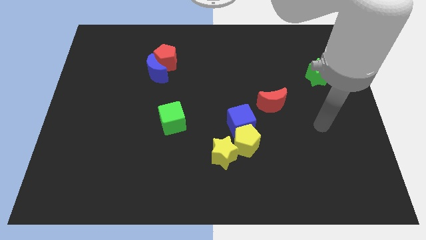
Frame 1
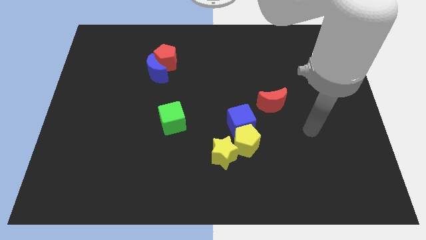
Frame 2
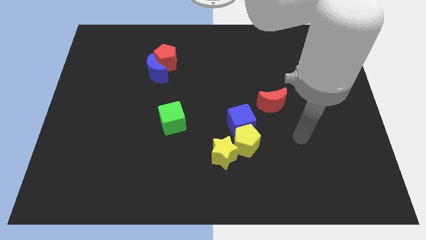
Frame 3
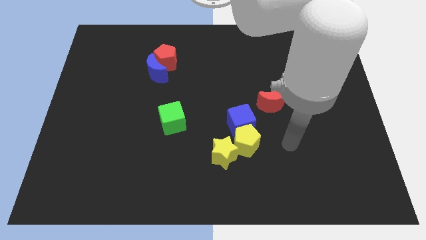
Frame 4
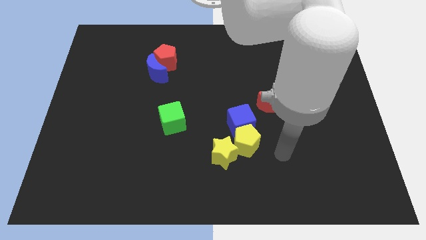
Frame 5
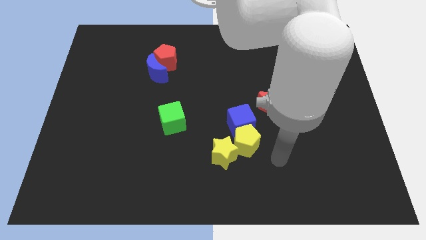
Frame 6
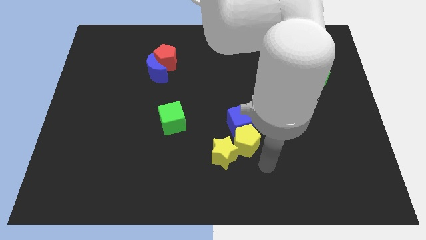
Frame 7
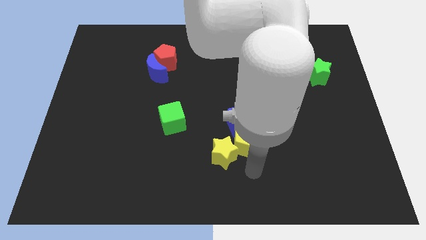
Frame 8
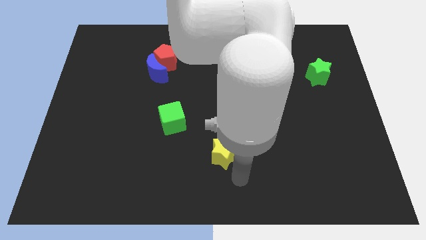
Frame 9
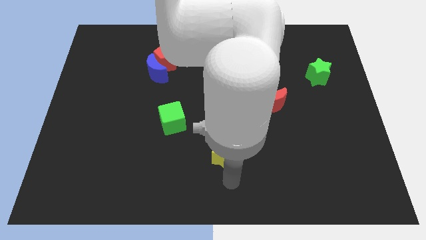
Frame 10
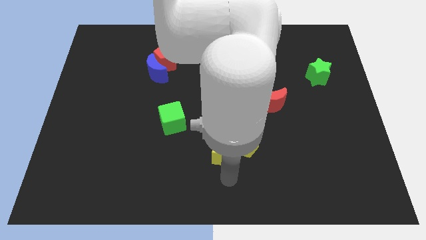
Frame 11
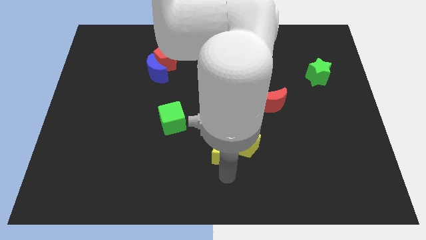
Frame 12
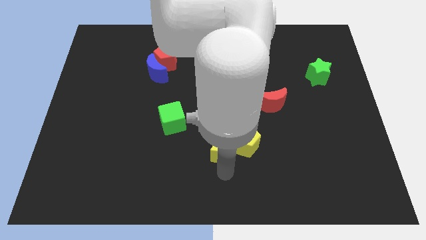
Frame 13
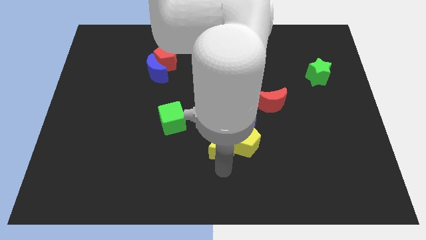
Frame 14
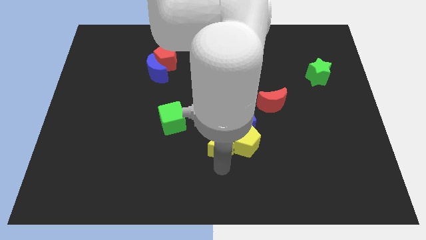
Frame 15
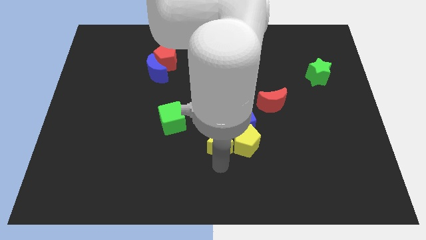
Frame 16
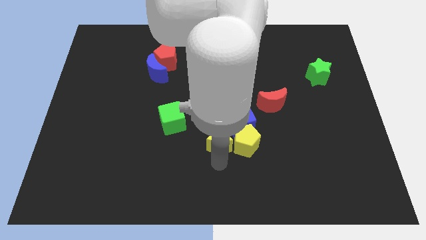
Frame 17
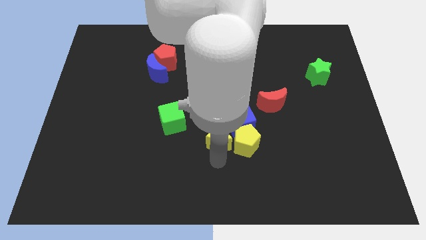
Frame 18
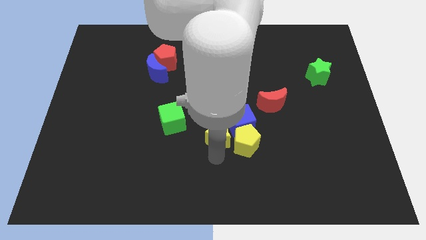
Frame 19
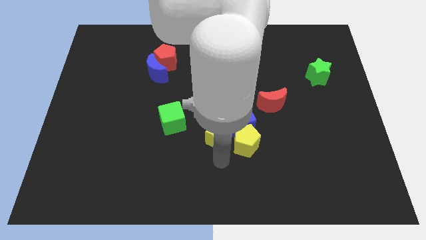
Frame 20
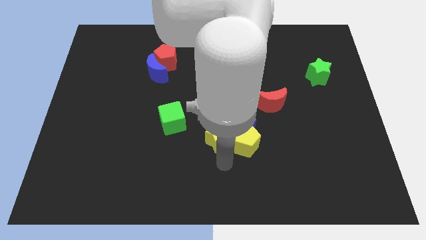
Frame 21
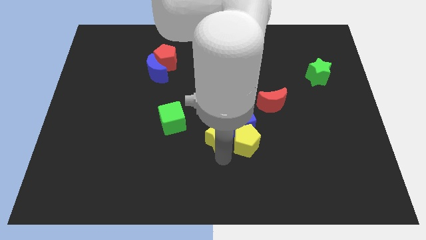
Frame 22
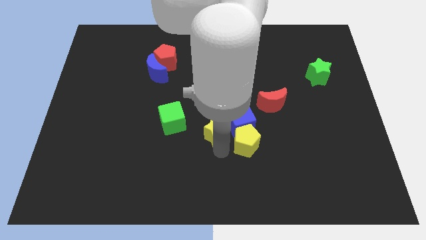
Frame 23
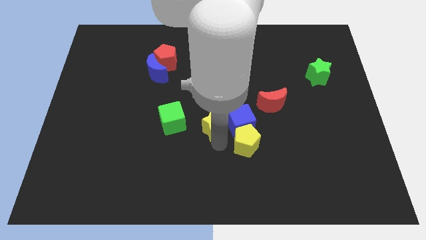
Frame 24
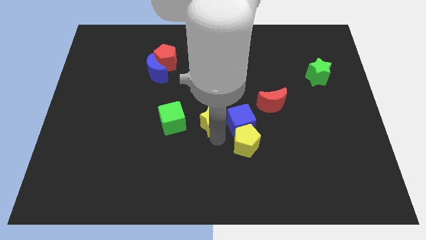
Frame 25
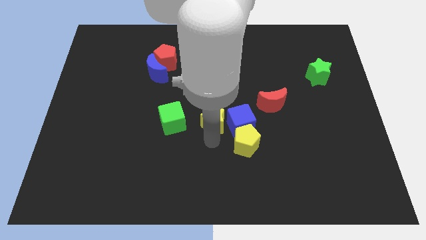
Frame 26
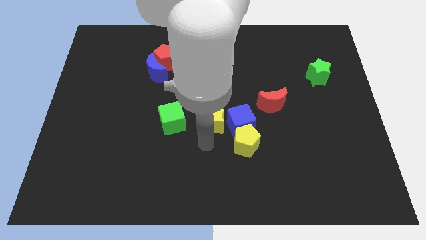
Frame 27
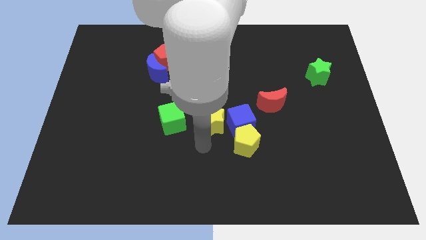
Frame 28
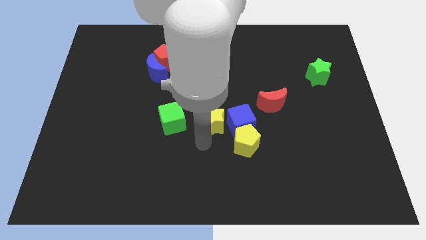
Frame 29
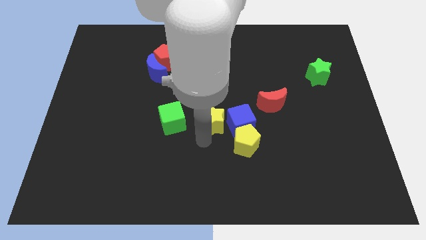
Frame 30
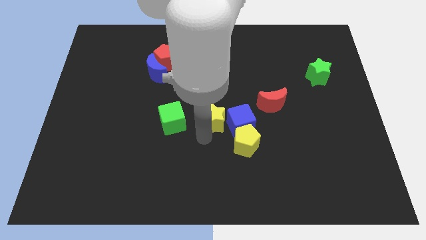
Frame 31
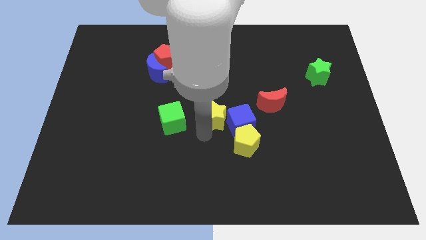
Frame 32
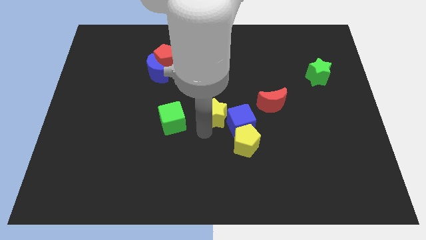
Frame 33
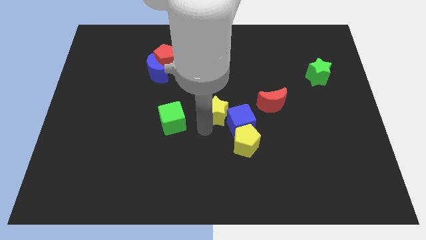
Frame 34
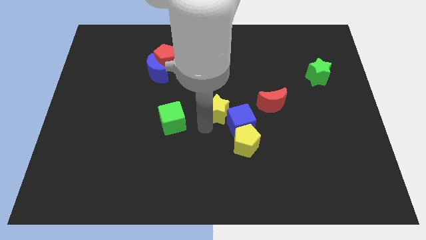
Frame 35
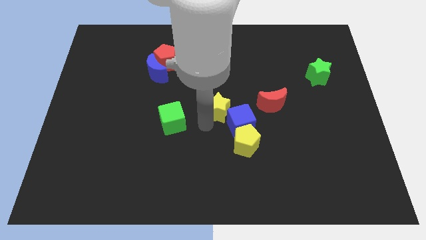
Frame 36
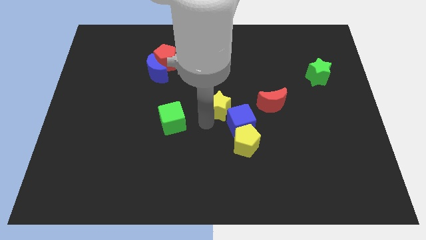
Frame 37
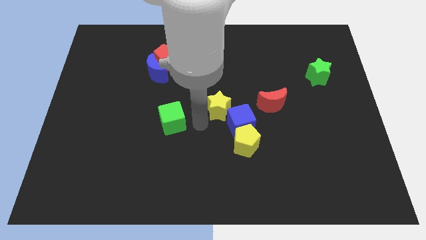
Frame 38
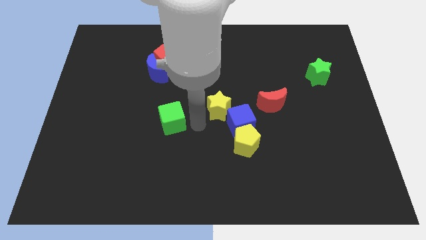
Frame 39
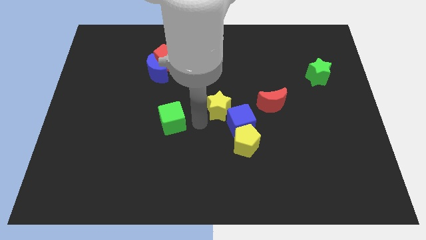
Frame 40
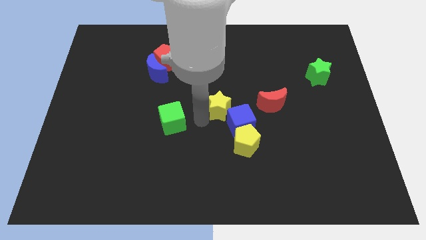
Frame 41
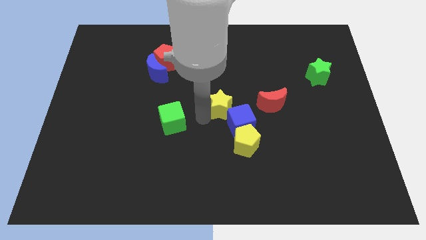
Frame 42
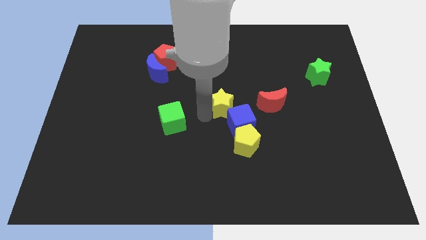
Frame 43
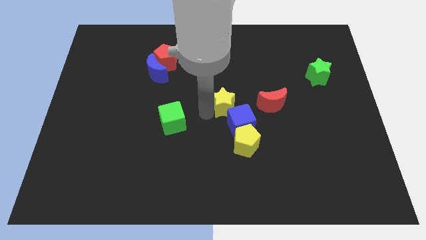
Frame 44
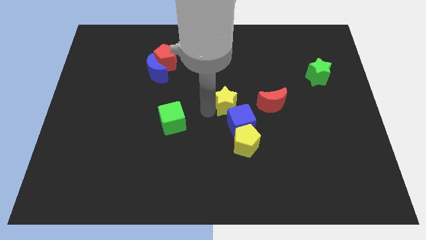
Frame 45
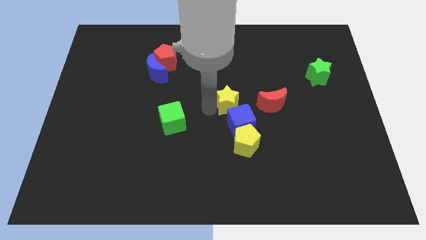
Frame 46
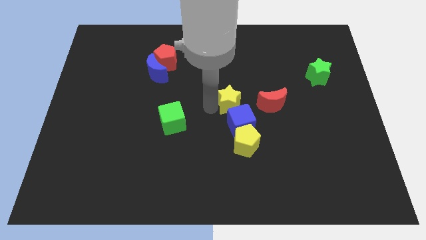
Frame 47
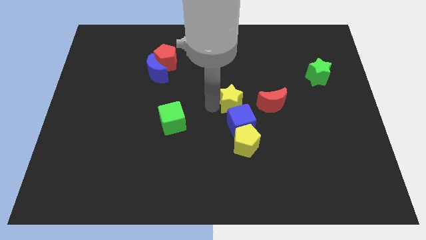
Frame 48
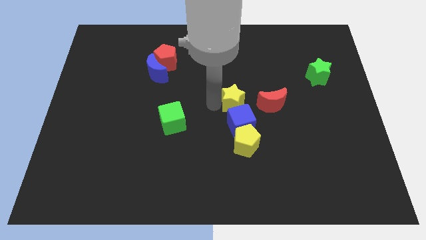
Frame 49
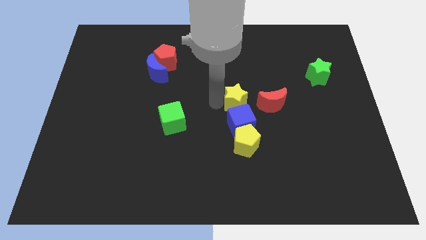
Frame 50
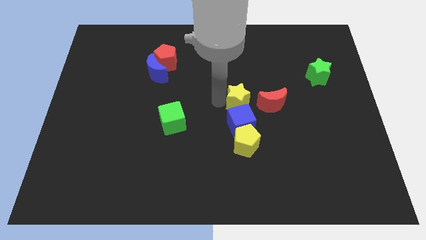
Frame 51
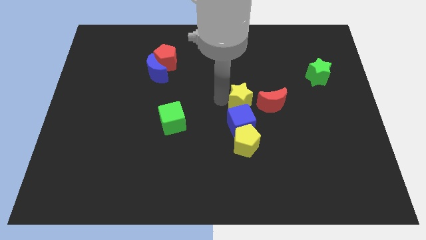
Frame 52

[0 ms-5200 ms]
move the yellow star diagonally up and to the left of the red moon

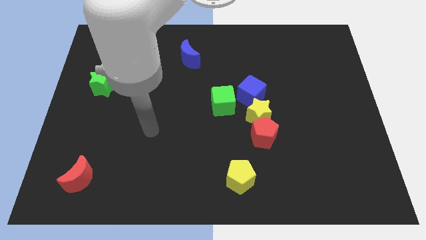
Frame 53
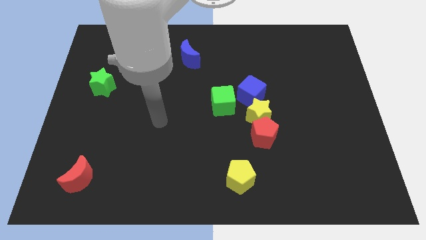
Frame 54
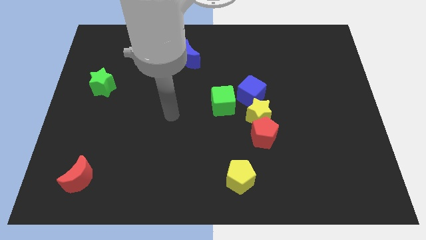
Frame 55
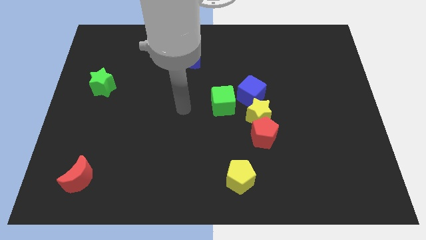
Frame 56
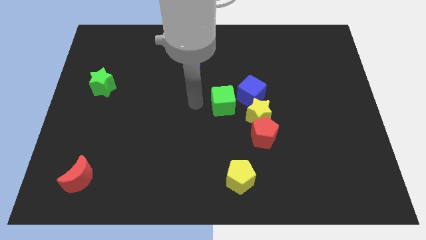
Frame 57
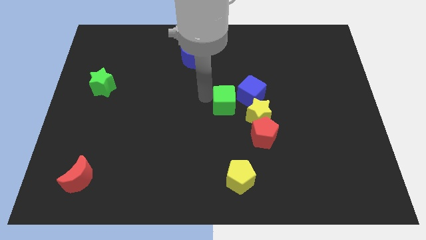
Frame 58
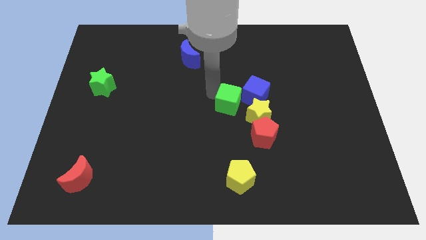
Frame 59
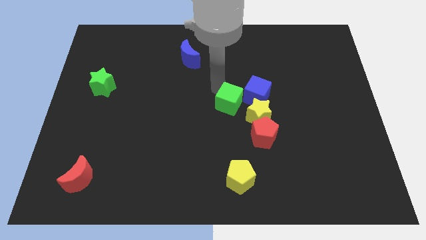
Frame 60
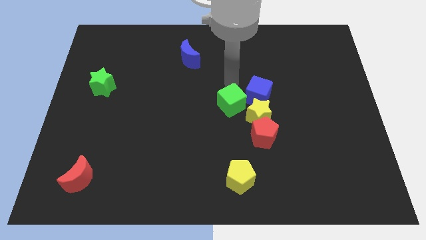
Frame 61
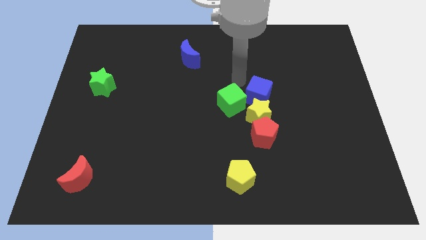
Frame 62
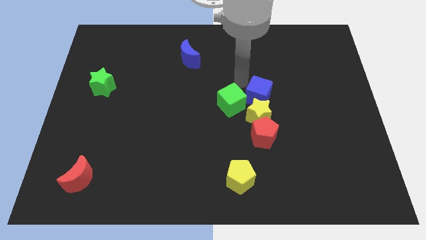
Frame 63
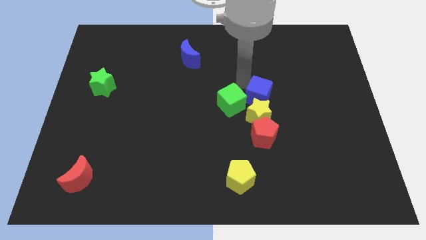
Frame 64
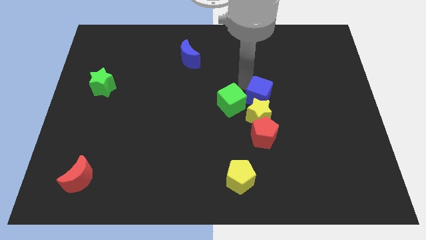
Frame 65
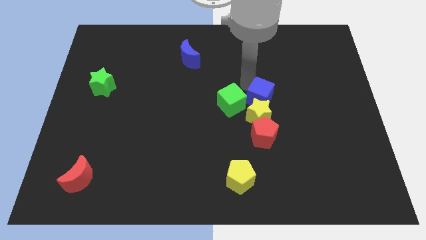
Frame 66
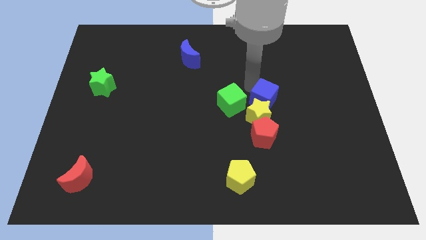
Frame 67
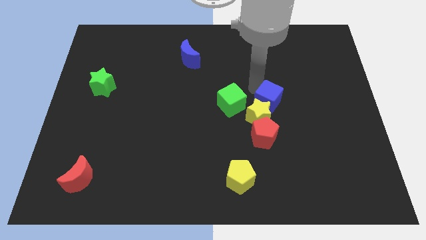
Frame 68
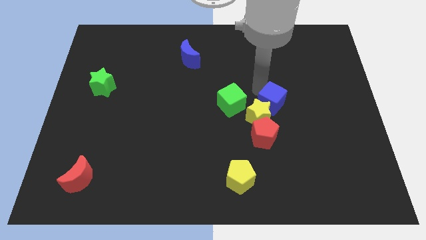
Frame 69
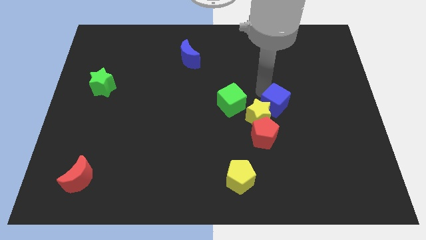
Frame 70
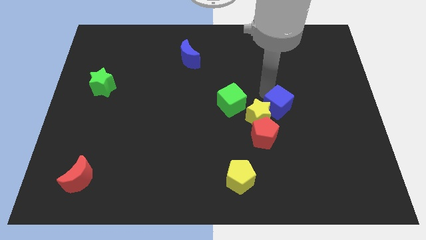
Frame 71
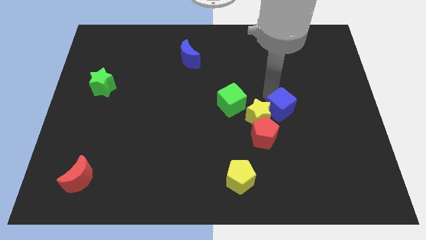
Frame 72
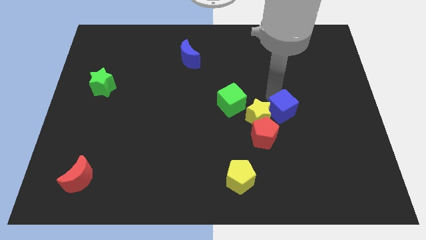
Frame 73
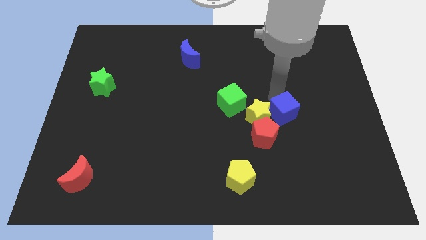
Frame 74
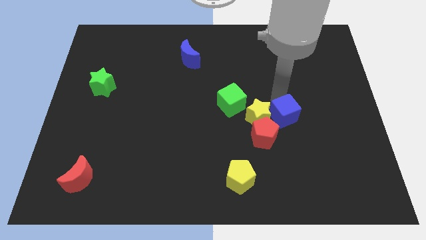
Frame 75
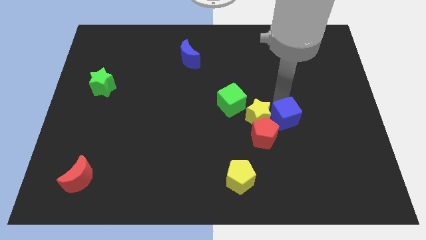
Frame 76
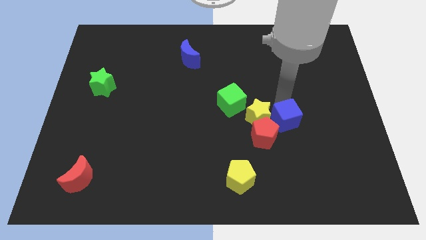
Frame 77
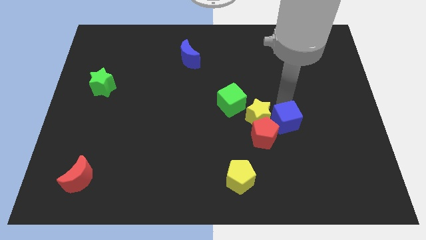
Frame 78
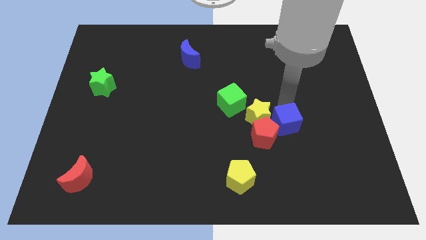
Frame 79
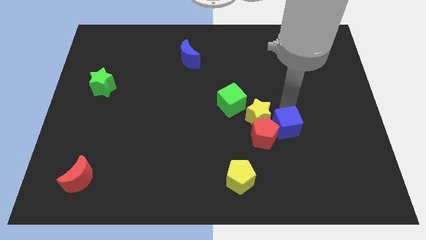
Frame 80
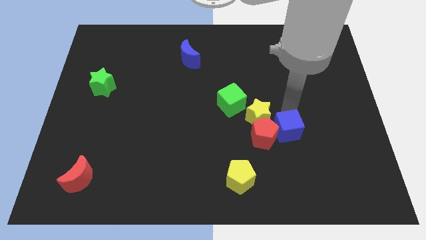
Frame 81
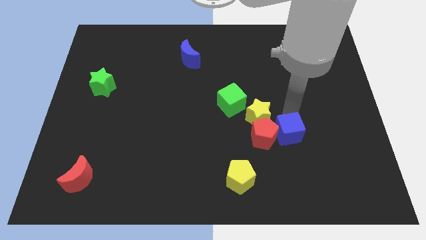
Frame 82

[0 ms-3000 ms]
slide the blue cube diagonally down and to the right of the red pentagon
